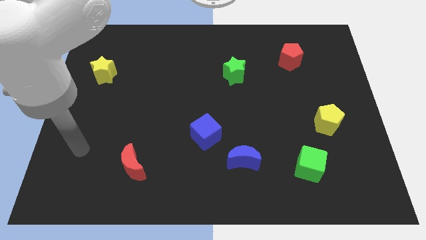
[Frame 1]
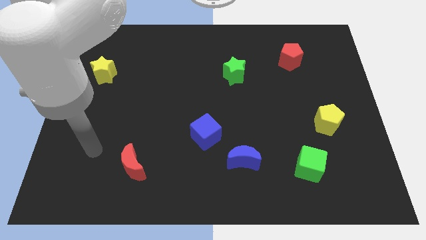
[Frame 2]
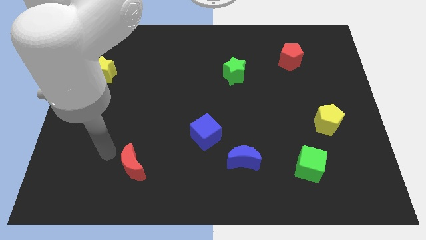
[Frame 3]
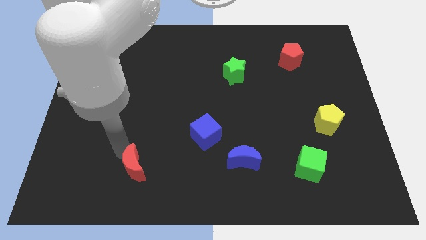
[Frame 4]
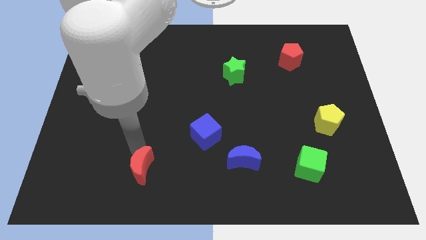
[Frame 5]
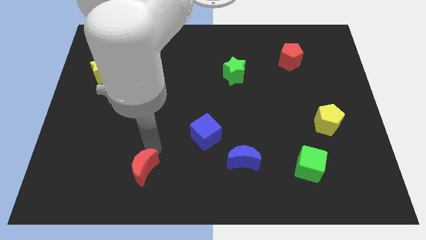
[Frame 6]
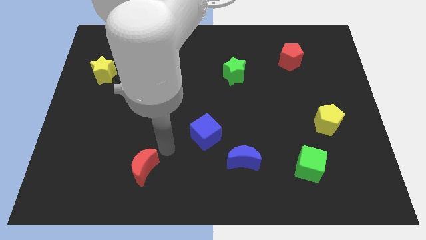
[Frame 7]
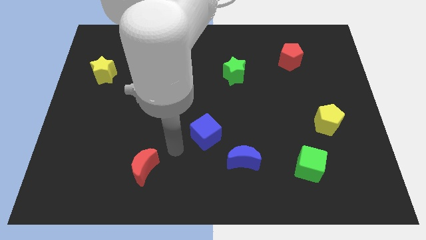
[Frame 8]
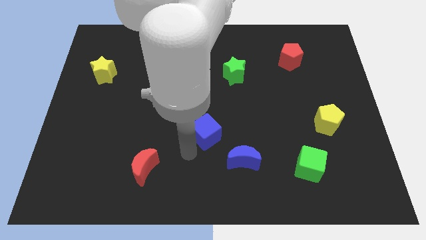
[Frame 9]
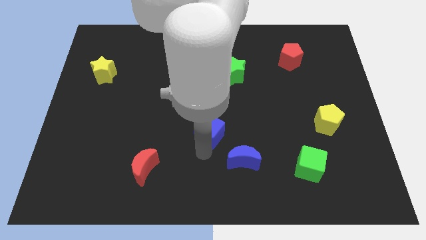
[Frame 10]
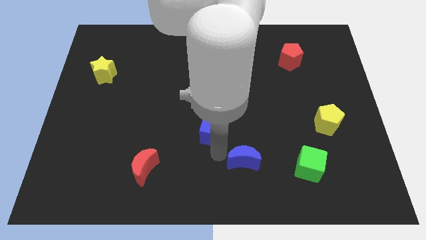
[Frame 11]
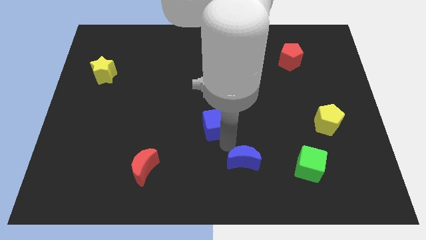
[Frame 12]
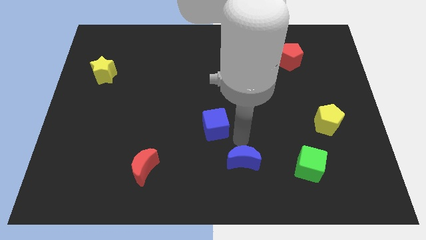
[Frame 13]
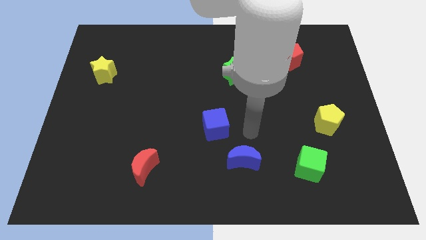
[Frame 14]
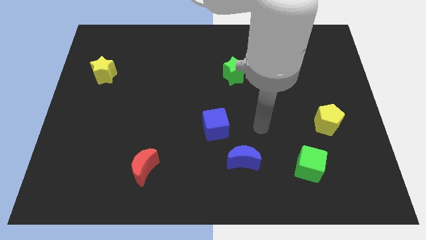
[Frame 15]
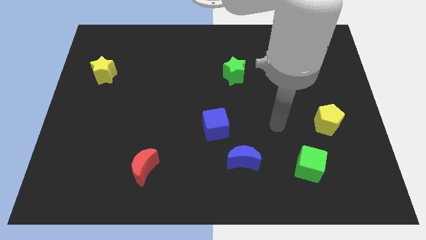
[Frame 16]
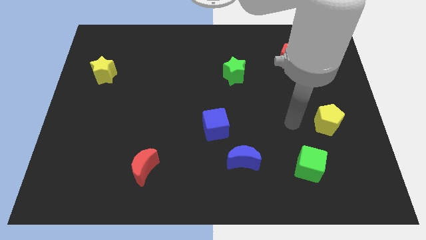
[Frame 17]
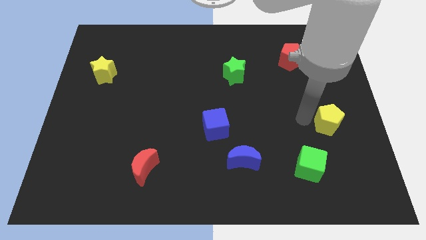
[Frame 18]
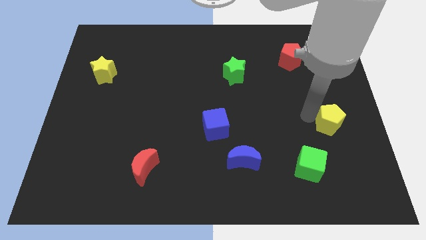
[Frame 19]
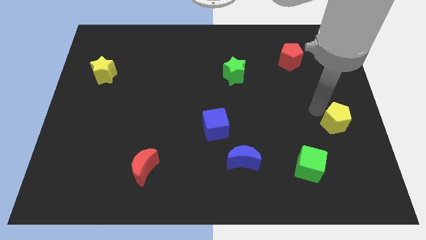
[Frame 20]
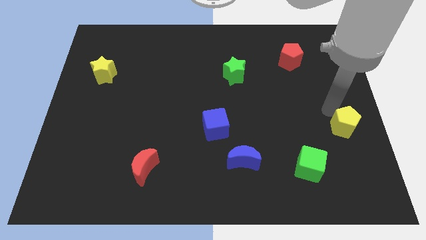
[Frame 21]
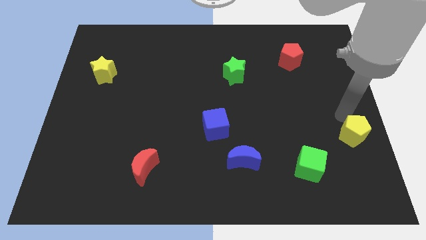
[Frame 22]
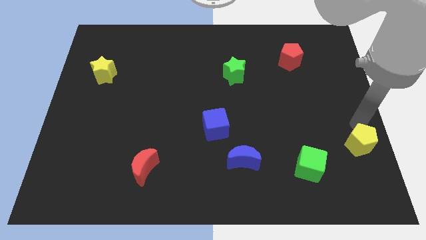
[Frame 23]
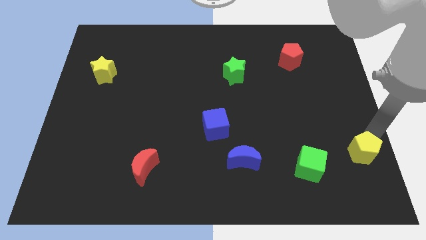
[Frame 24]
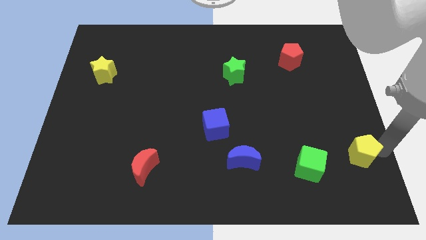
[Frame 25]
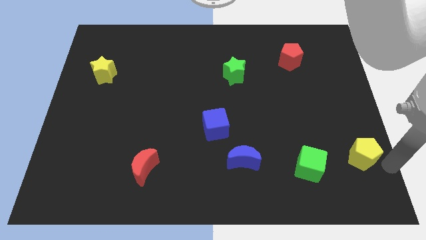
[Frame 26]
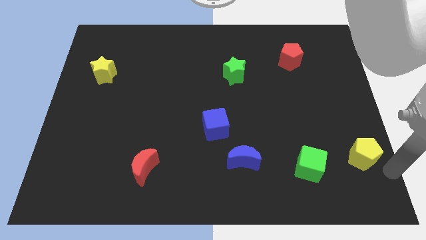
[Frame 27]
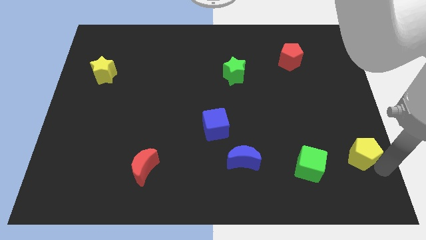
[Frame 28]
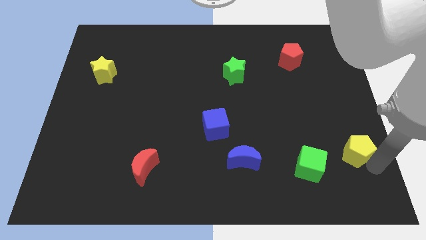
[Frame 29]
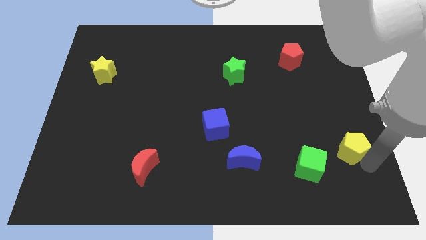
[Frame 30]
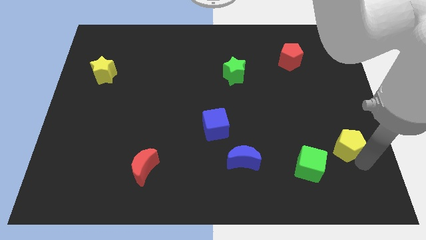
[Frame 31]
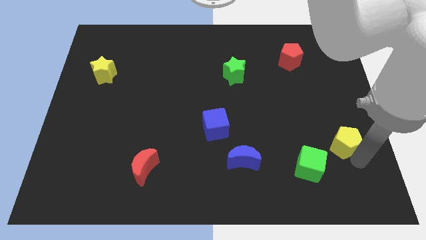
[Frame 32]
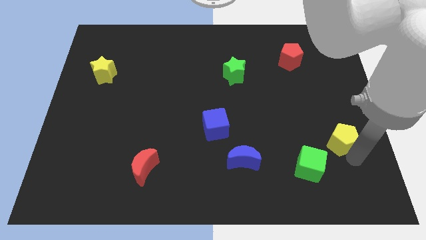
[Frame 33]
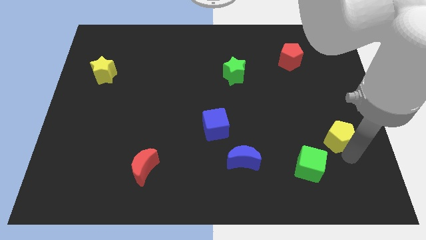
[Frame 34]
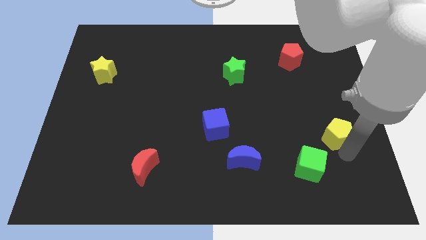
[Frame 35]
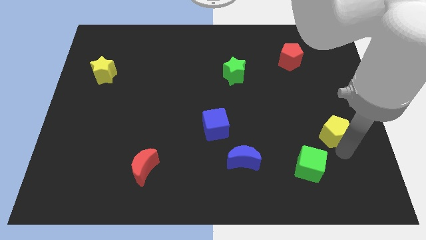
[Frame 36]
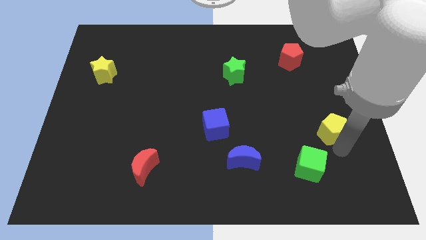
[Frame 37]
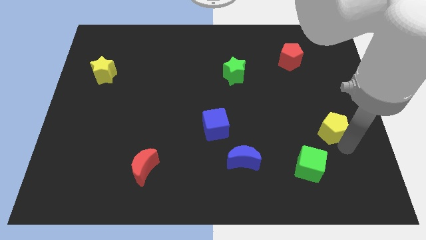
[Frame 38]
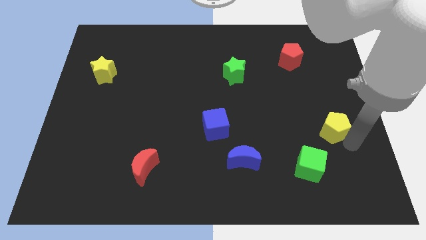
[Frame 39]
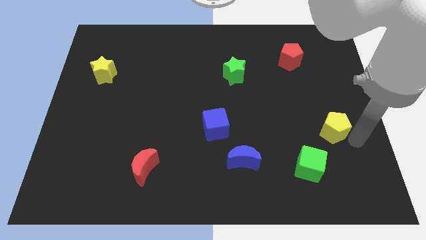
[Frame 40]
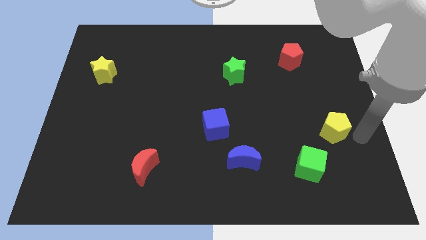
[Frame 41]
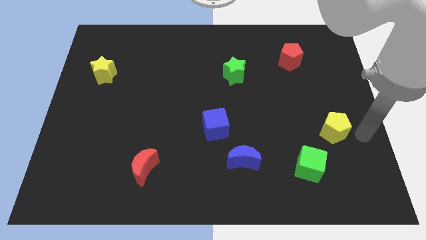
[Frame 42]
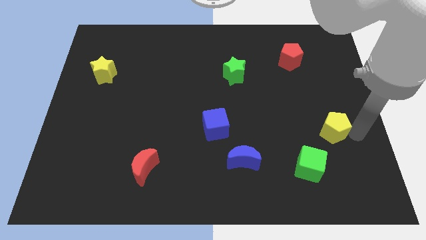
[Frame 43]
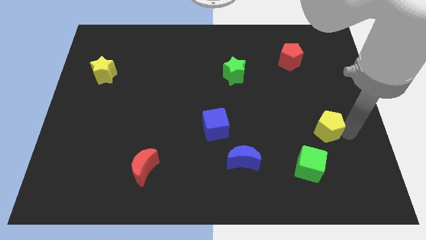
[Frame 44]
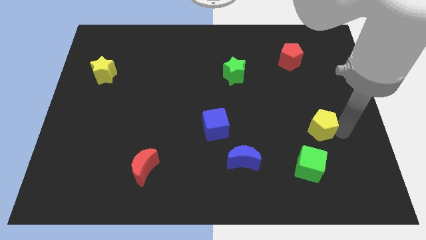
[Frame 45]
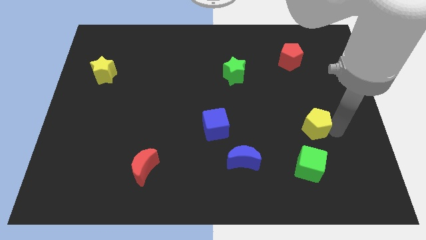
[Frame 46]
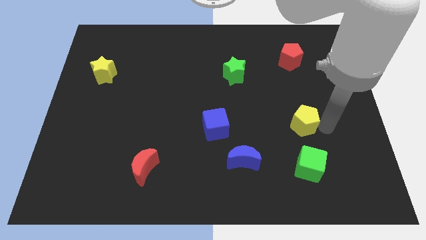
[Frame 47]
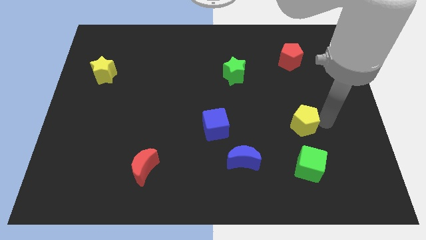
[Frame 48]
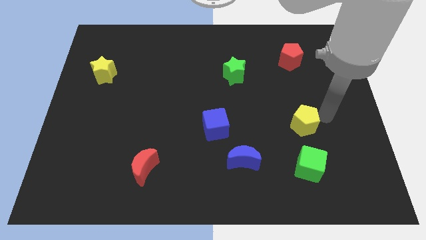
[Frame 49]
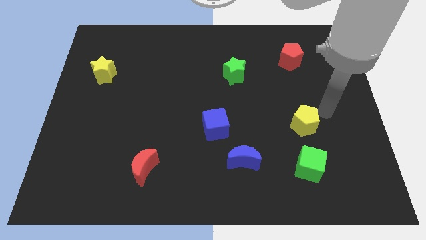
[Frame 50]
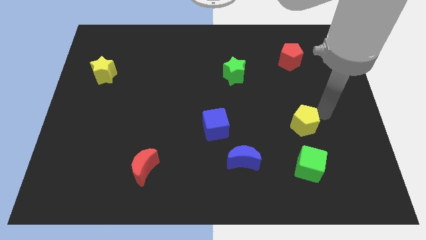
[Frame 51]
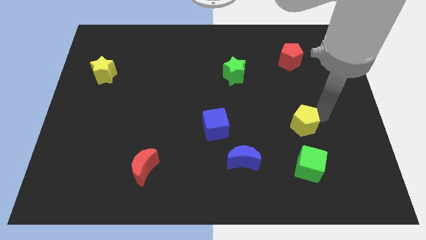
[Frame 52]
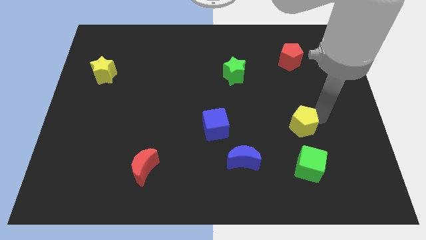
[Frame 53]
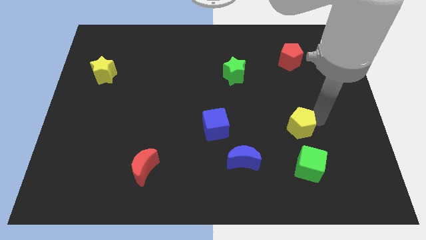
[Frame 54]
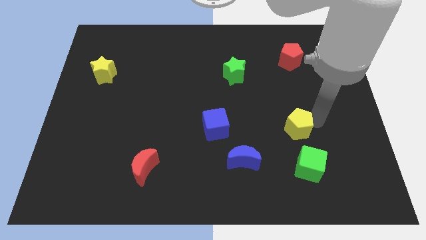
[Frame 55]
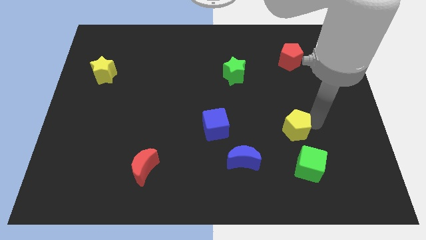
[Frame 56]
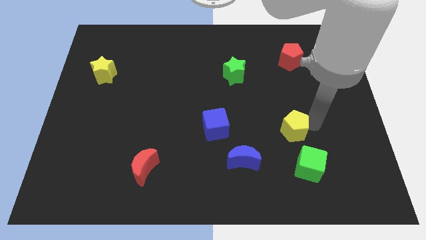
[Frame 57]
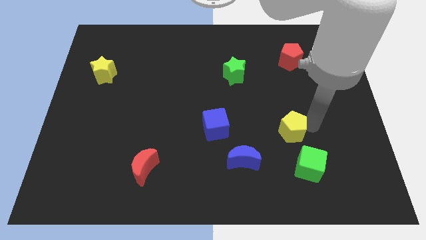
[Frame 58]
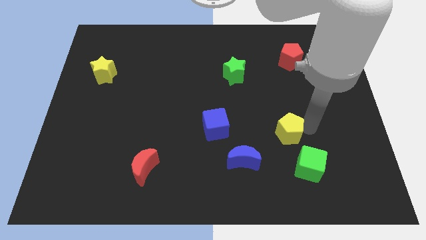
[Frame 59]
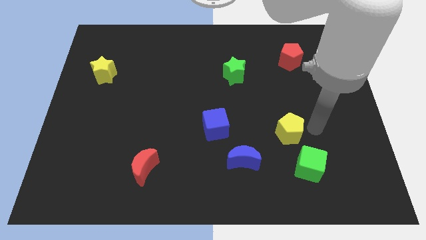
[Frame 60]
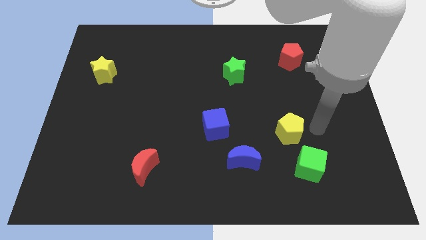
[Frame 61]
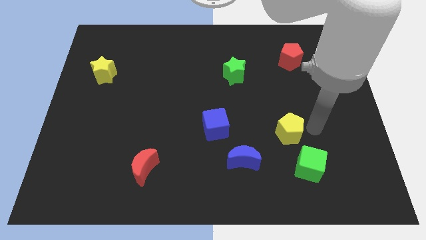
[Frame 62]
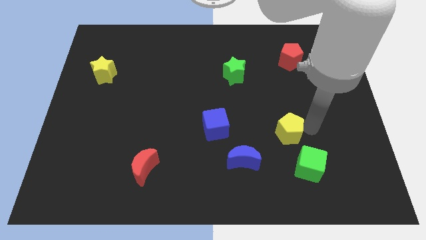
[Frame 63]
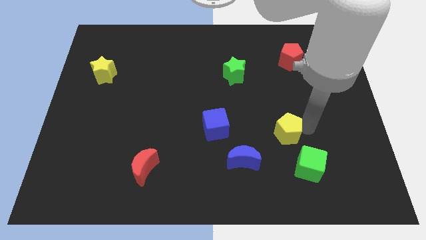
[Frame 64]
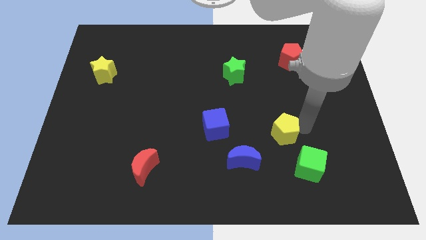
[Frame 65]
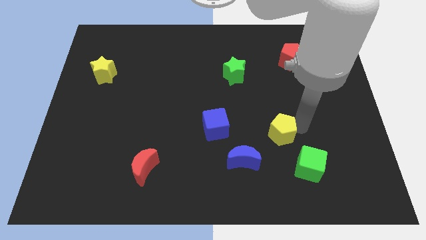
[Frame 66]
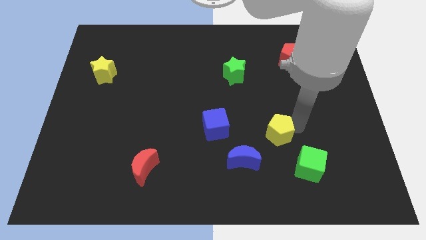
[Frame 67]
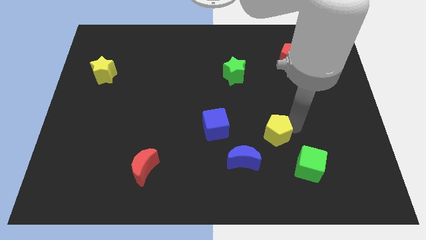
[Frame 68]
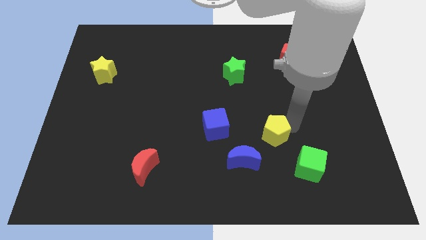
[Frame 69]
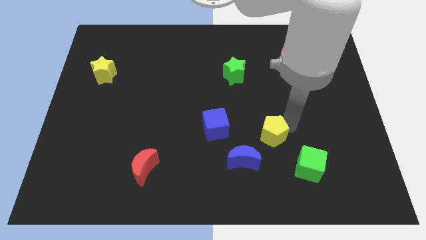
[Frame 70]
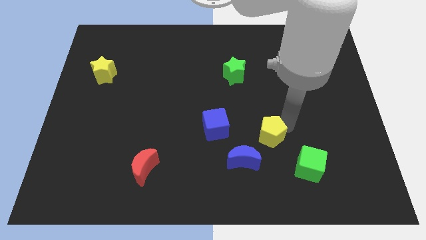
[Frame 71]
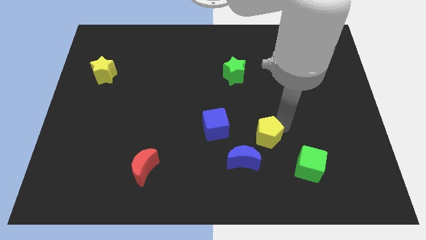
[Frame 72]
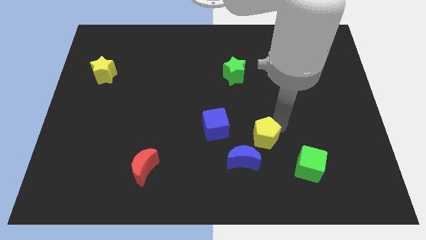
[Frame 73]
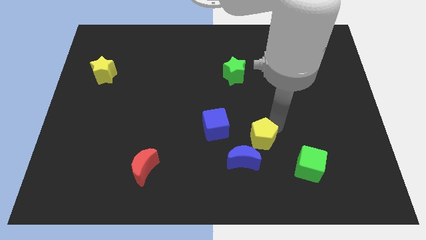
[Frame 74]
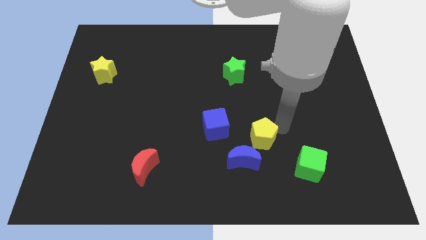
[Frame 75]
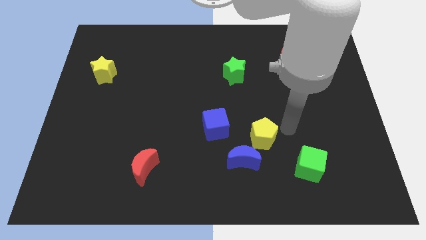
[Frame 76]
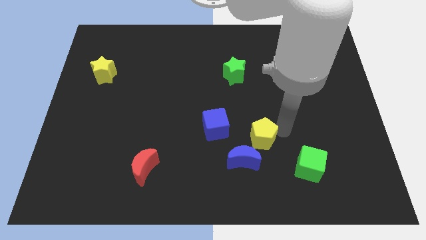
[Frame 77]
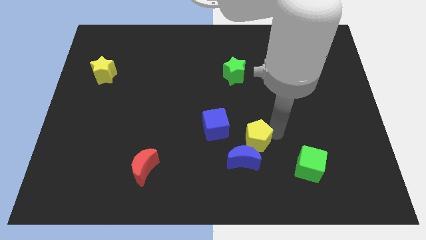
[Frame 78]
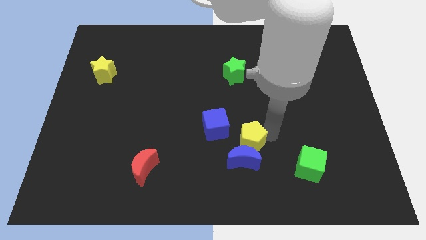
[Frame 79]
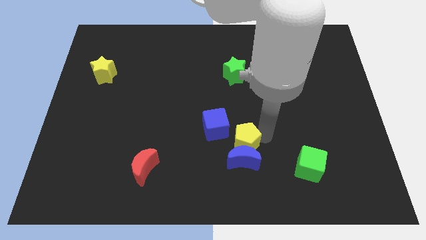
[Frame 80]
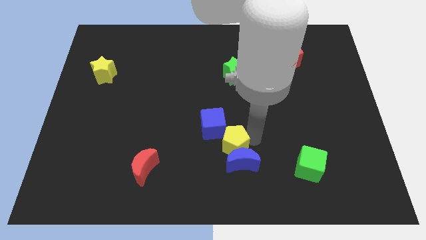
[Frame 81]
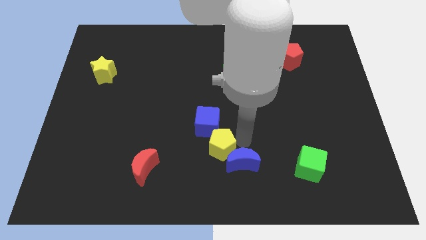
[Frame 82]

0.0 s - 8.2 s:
push the yellow pentagon left of the blue moon
